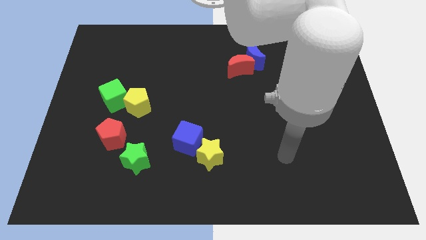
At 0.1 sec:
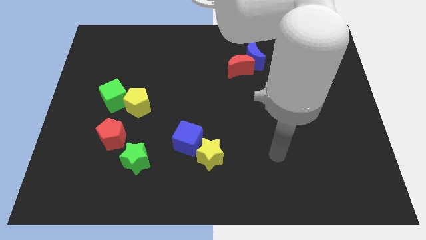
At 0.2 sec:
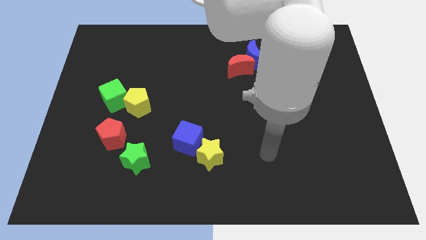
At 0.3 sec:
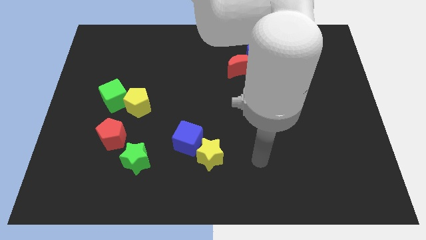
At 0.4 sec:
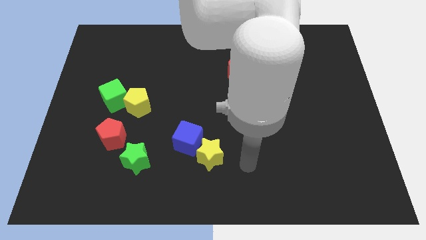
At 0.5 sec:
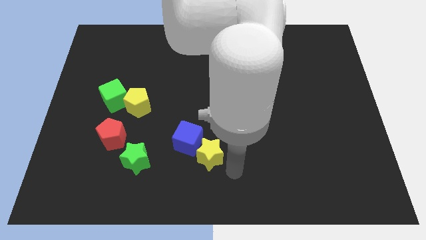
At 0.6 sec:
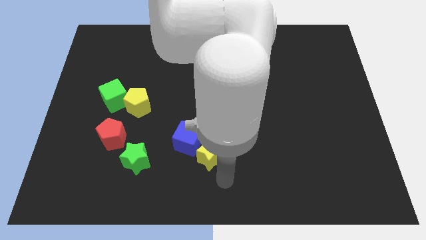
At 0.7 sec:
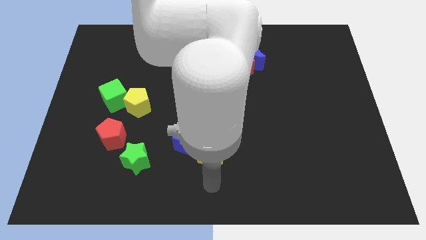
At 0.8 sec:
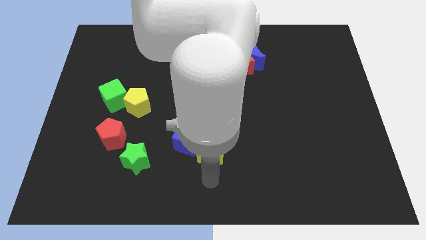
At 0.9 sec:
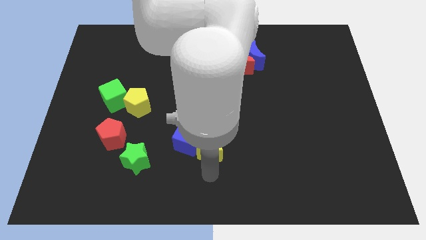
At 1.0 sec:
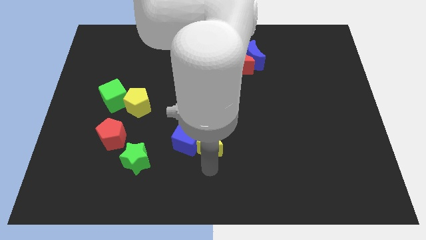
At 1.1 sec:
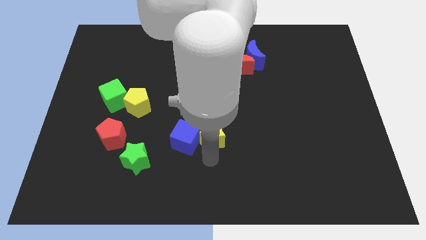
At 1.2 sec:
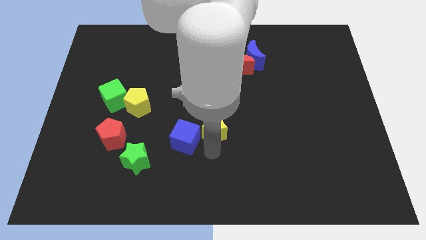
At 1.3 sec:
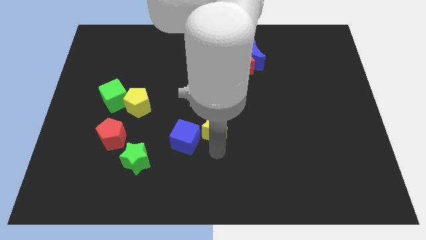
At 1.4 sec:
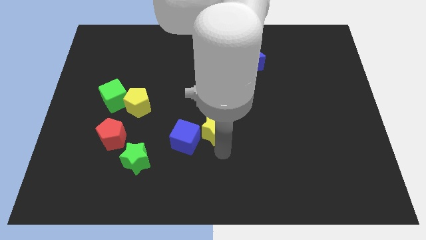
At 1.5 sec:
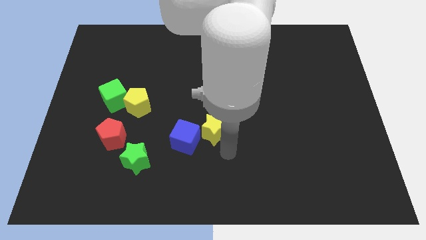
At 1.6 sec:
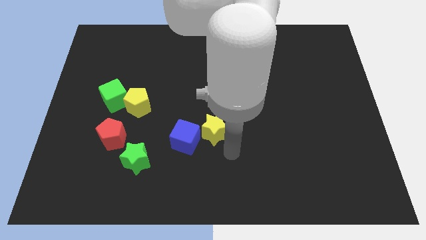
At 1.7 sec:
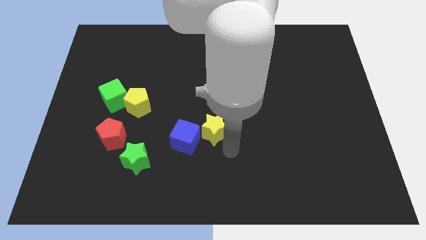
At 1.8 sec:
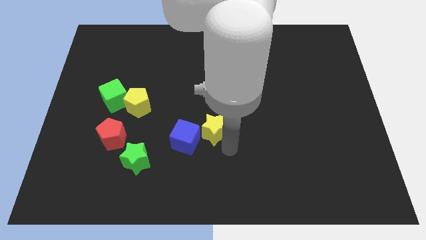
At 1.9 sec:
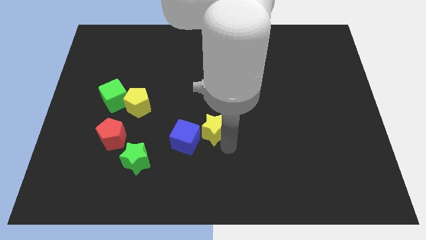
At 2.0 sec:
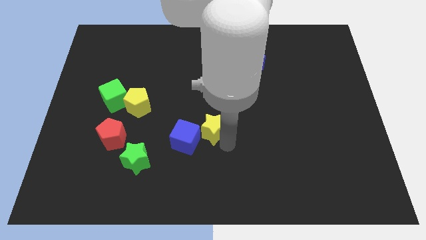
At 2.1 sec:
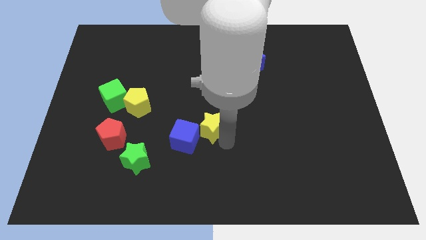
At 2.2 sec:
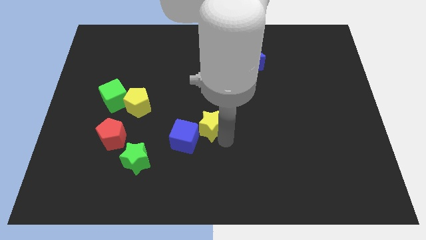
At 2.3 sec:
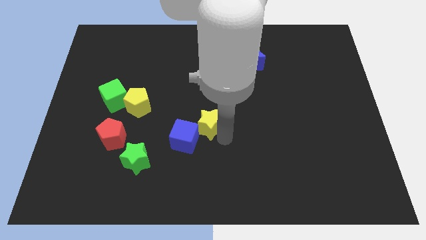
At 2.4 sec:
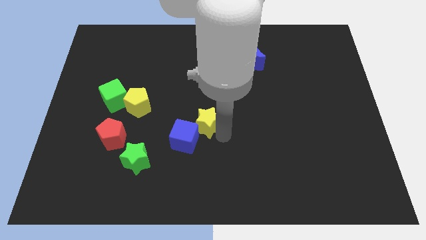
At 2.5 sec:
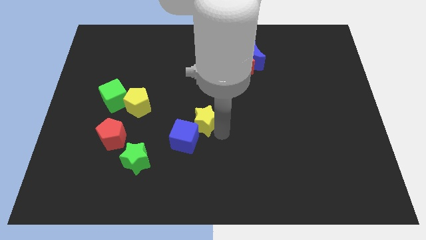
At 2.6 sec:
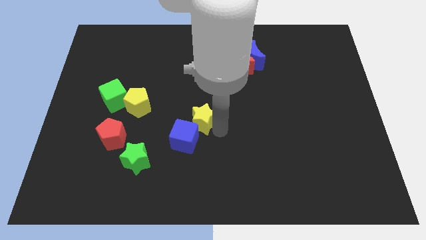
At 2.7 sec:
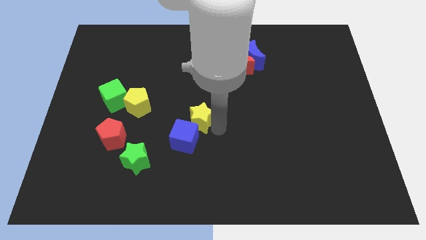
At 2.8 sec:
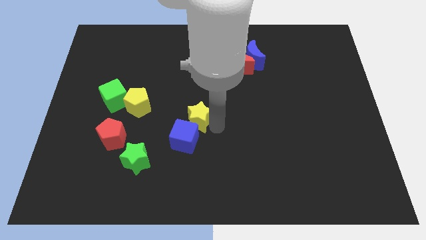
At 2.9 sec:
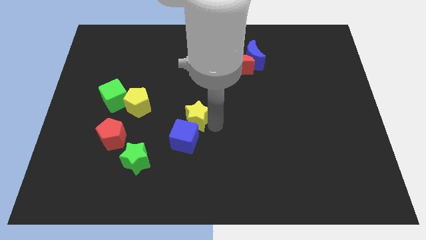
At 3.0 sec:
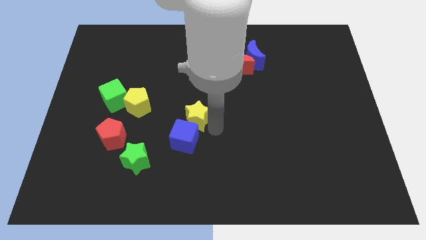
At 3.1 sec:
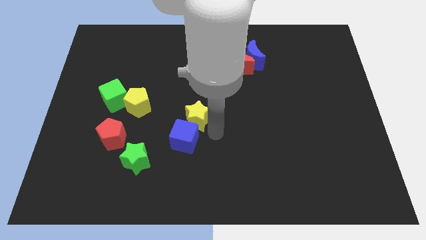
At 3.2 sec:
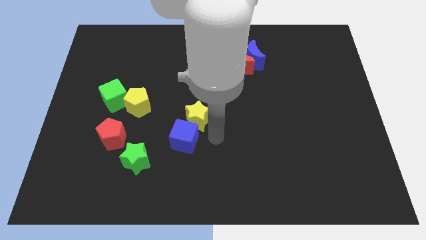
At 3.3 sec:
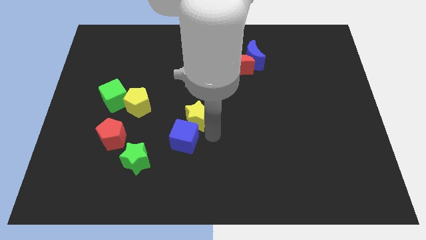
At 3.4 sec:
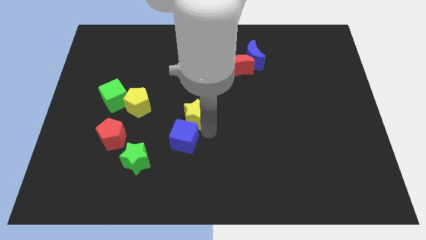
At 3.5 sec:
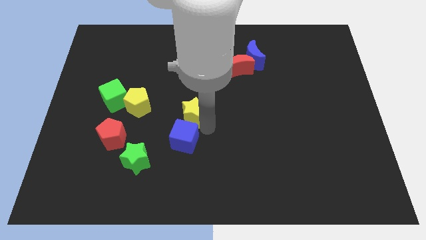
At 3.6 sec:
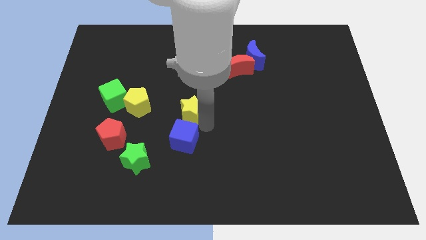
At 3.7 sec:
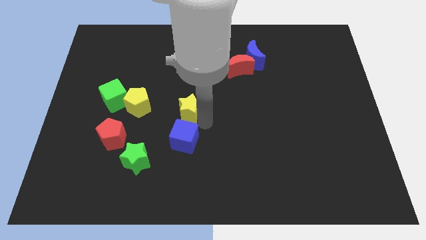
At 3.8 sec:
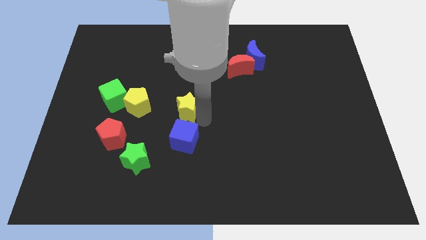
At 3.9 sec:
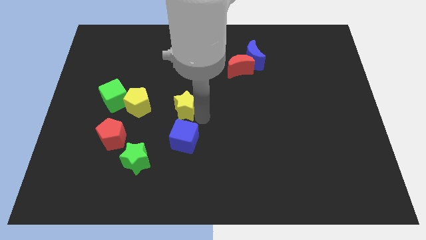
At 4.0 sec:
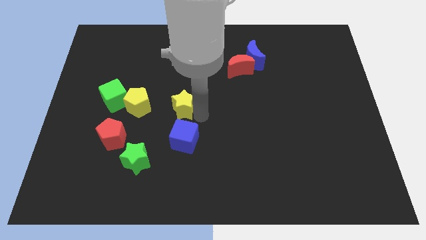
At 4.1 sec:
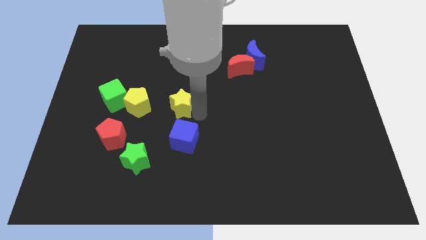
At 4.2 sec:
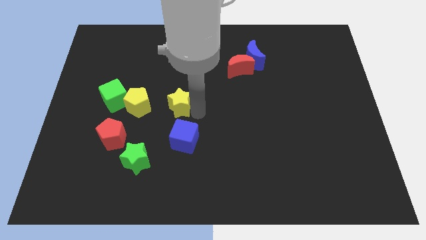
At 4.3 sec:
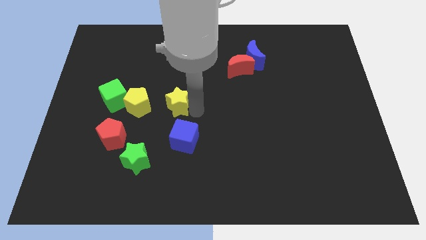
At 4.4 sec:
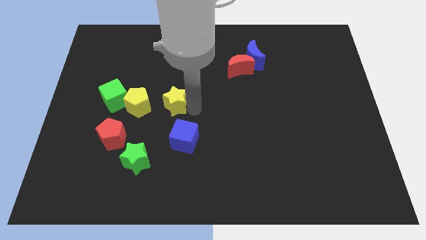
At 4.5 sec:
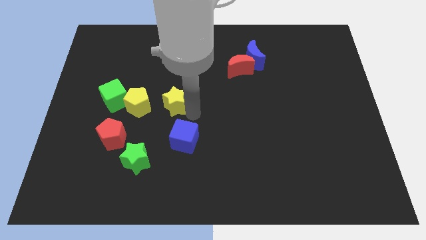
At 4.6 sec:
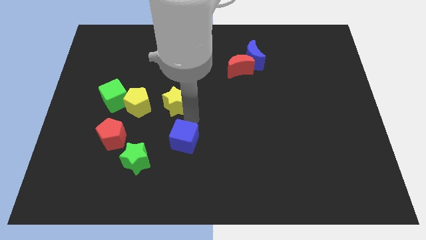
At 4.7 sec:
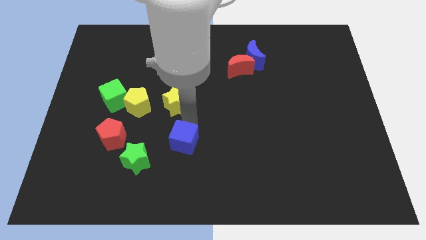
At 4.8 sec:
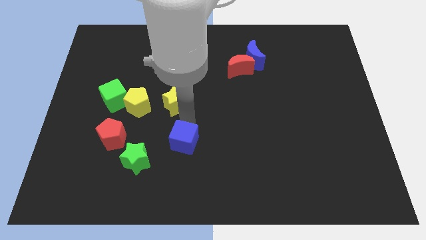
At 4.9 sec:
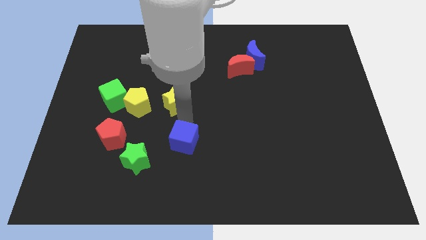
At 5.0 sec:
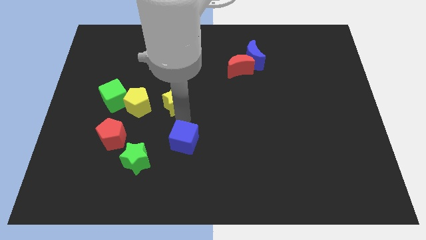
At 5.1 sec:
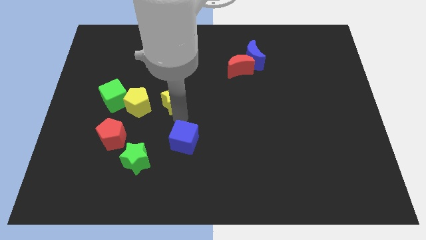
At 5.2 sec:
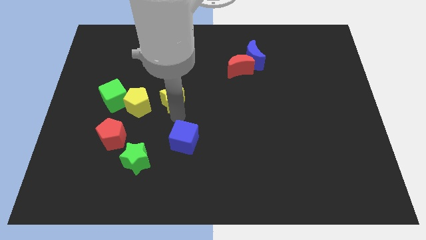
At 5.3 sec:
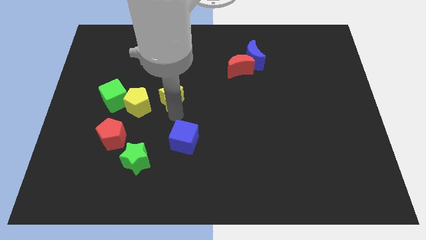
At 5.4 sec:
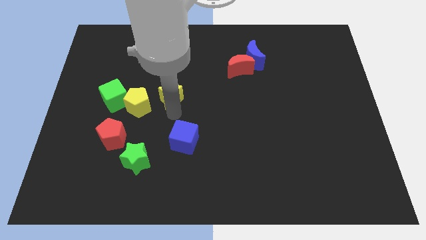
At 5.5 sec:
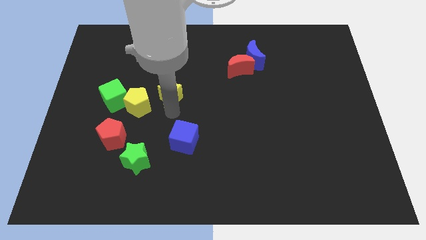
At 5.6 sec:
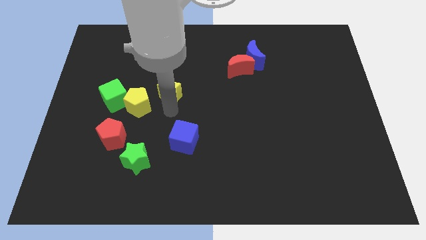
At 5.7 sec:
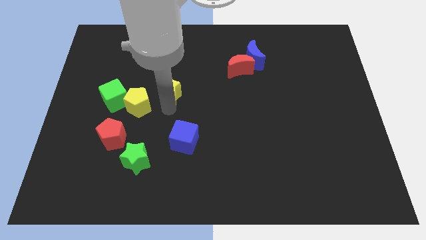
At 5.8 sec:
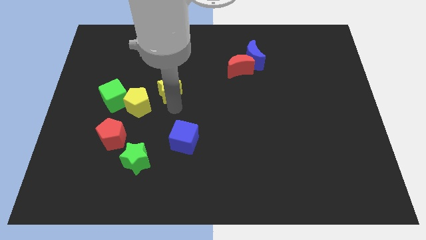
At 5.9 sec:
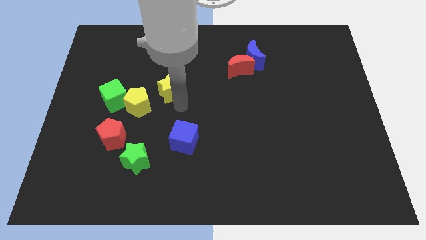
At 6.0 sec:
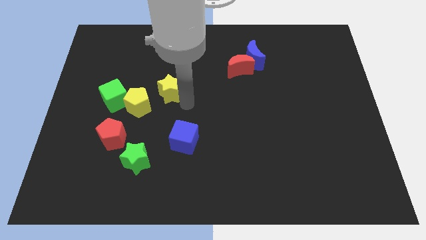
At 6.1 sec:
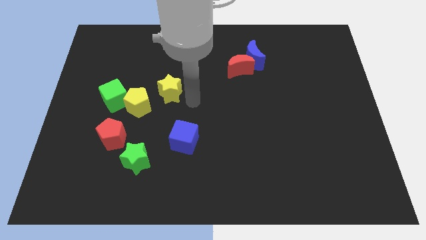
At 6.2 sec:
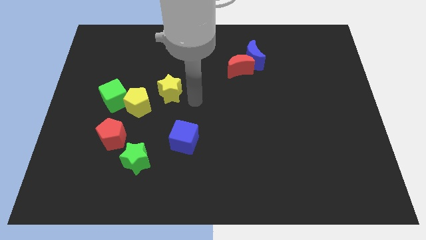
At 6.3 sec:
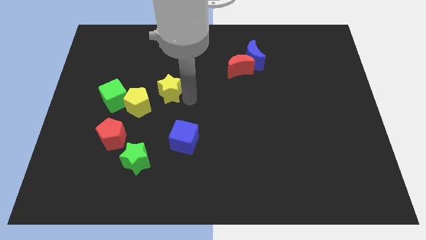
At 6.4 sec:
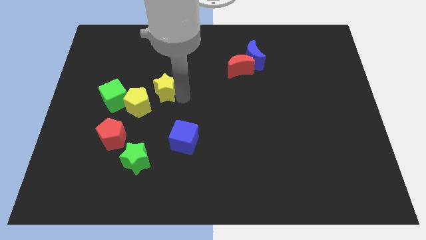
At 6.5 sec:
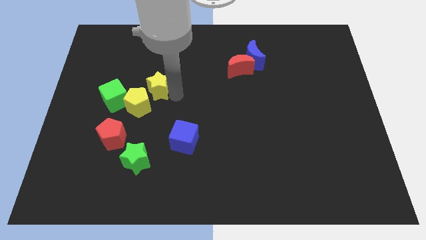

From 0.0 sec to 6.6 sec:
push the yellow star up and left diagonally

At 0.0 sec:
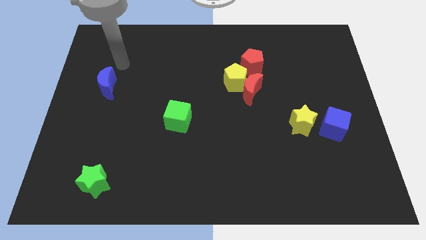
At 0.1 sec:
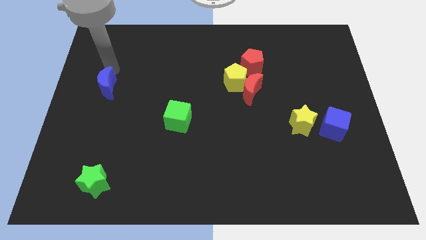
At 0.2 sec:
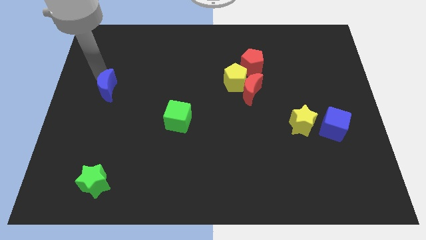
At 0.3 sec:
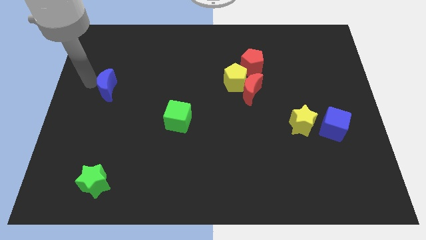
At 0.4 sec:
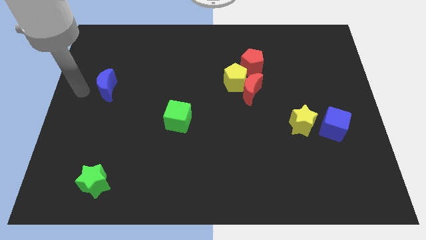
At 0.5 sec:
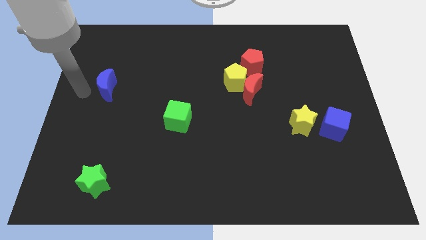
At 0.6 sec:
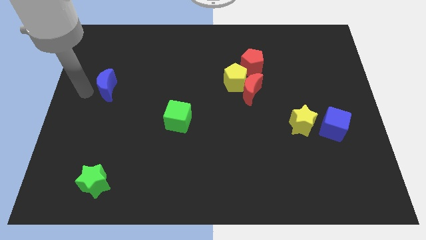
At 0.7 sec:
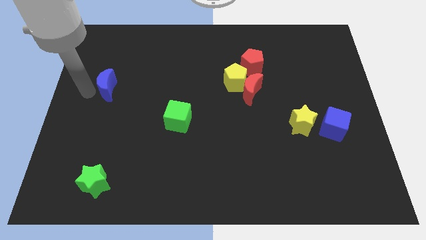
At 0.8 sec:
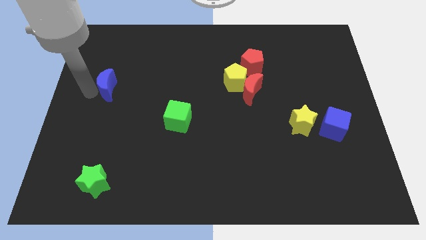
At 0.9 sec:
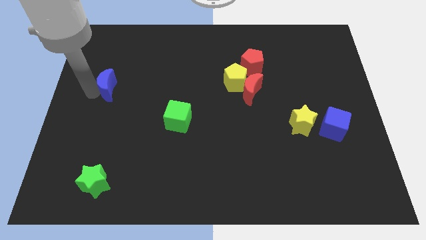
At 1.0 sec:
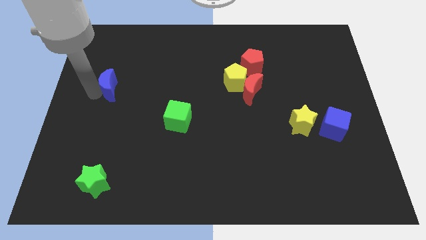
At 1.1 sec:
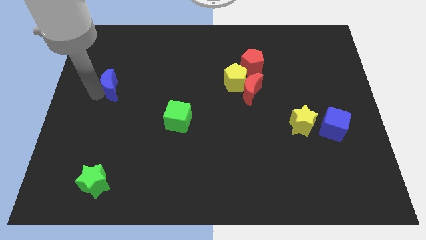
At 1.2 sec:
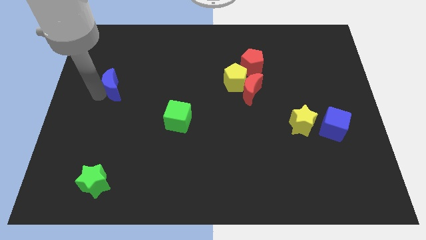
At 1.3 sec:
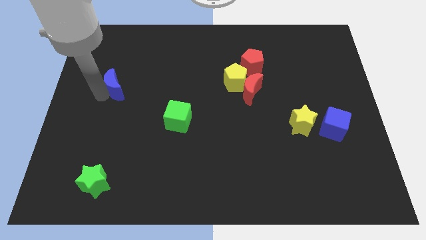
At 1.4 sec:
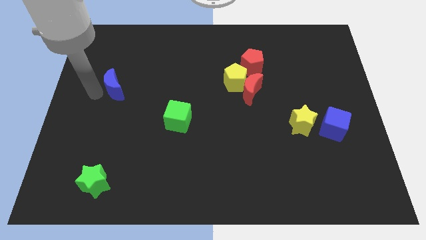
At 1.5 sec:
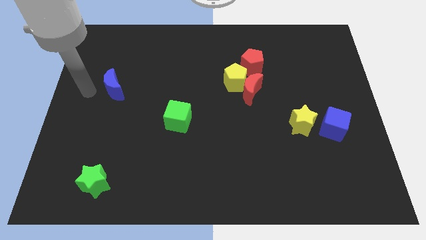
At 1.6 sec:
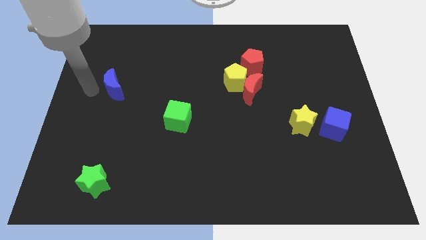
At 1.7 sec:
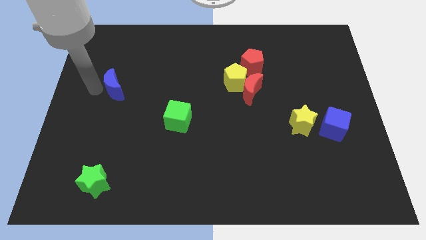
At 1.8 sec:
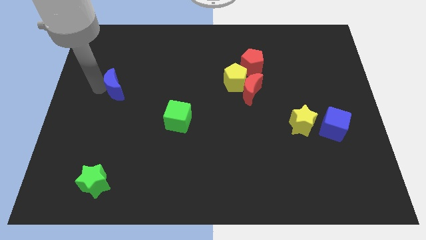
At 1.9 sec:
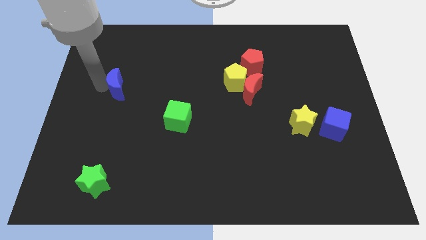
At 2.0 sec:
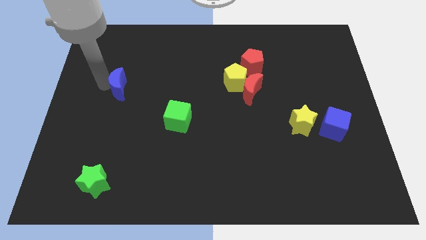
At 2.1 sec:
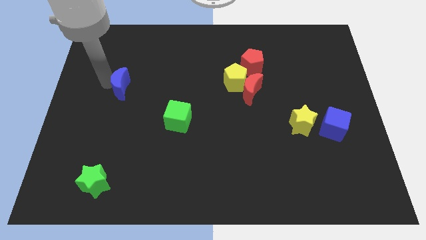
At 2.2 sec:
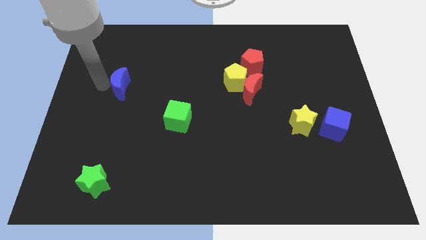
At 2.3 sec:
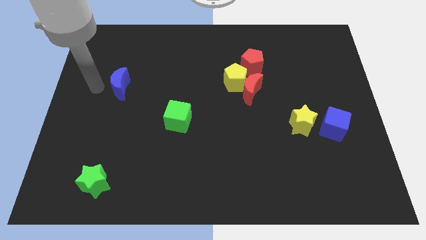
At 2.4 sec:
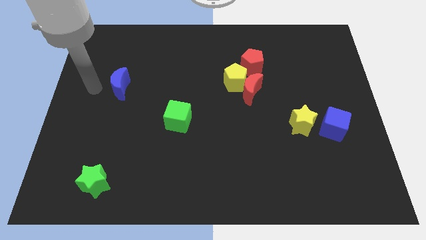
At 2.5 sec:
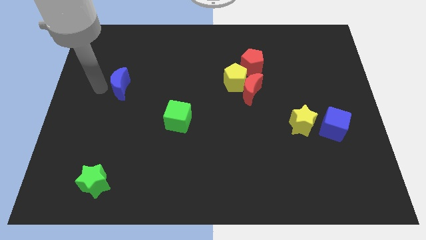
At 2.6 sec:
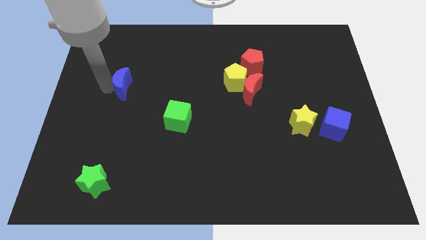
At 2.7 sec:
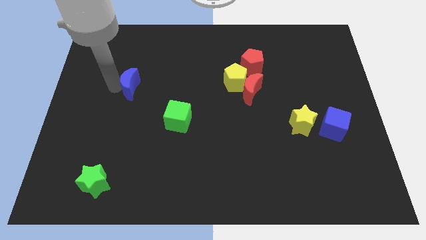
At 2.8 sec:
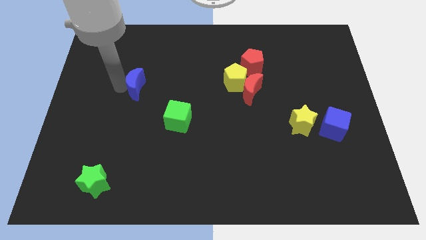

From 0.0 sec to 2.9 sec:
slide the blue moon right a little
